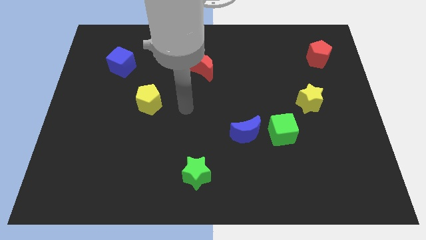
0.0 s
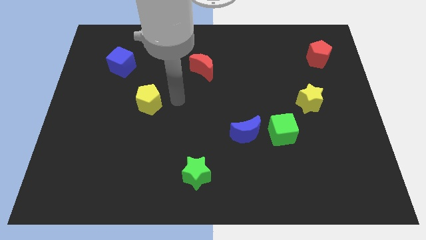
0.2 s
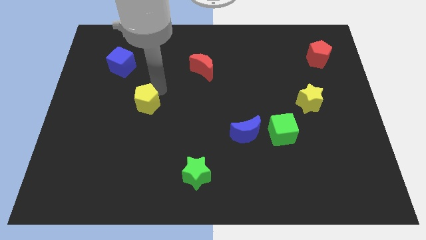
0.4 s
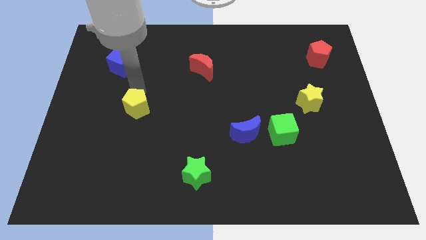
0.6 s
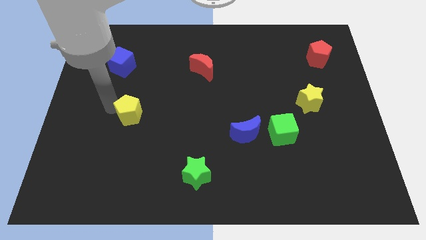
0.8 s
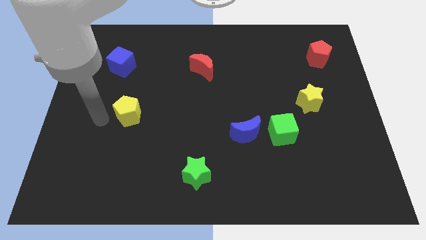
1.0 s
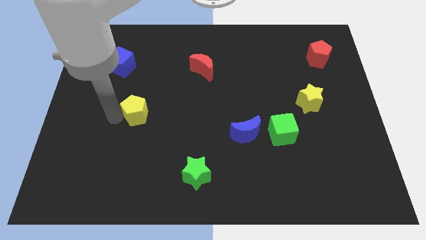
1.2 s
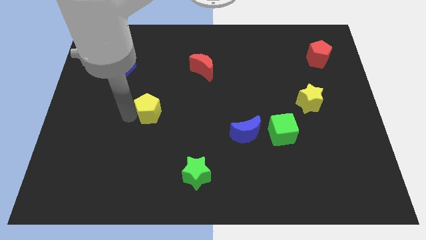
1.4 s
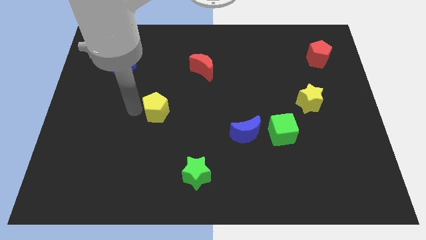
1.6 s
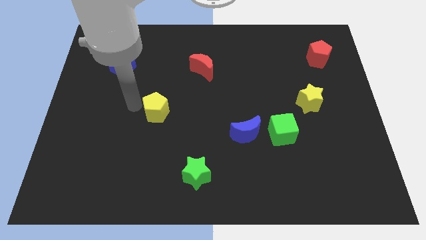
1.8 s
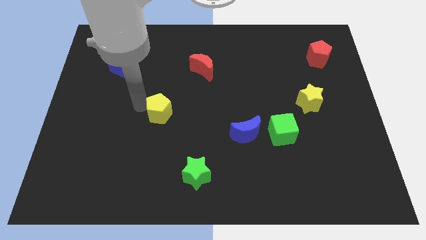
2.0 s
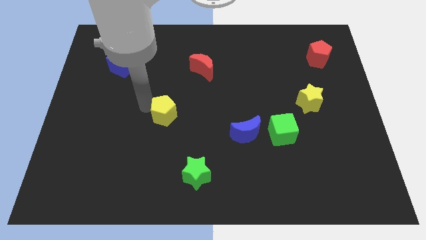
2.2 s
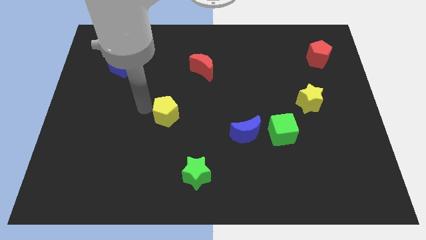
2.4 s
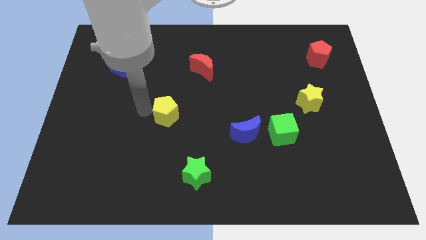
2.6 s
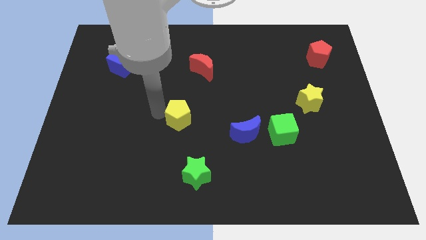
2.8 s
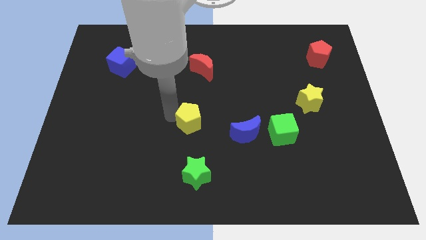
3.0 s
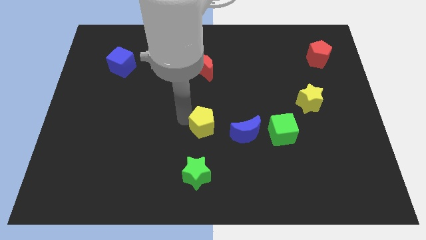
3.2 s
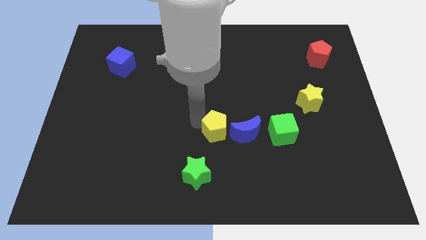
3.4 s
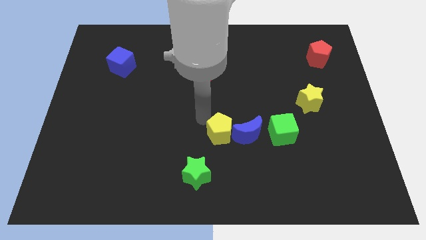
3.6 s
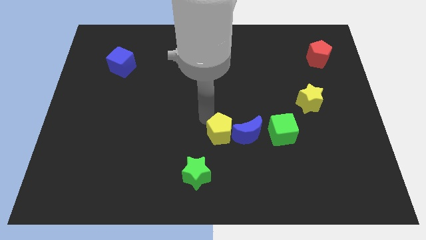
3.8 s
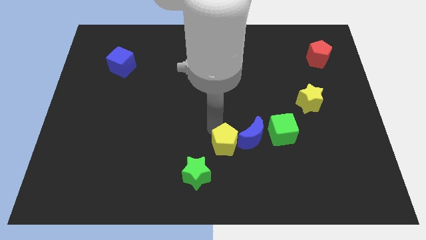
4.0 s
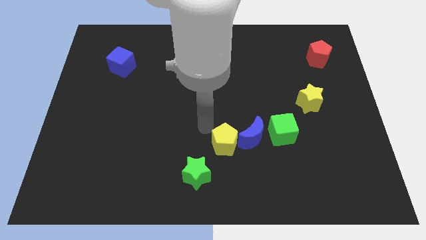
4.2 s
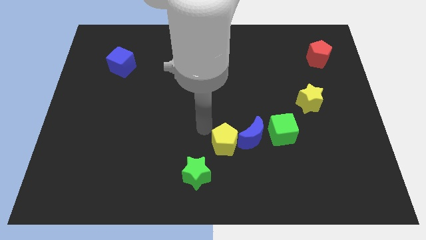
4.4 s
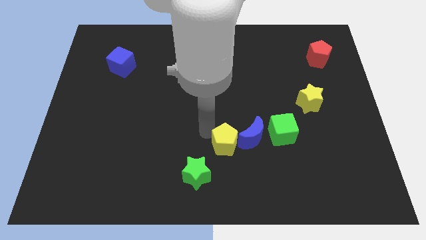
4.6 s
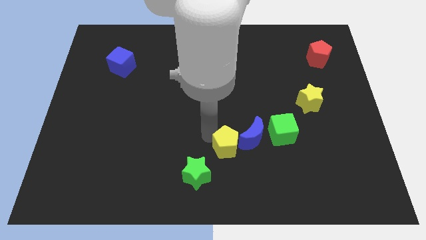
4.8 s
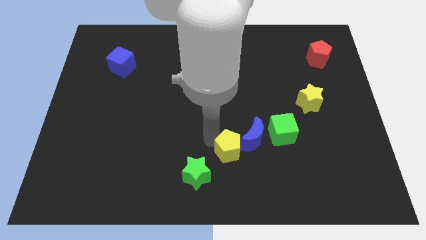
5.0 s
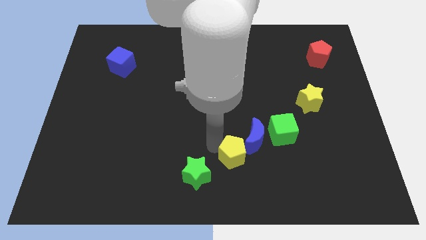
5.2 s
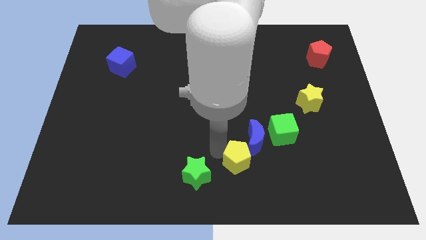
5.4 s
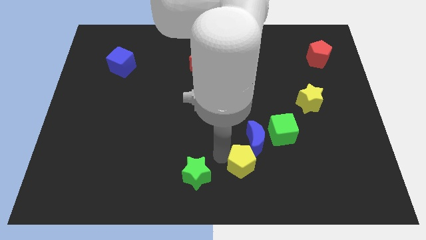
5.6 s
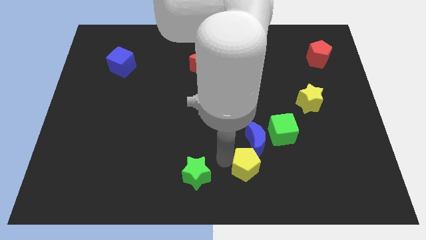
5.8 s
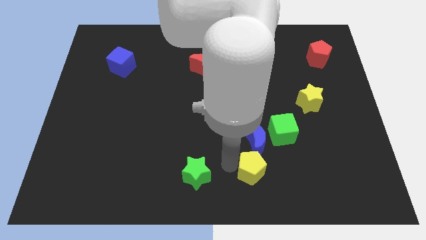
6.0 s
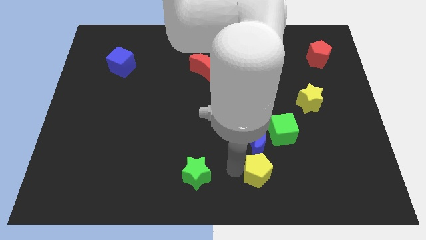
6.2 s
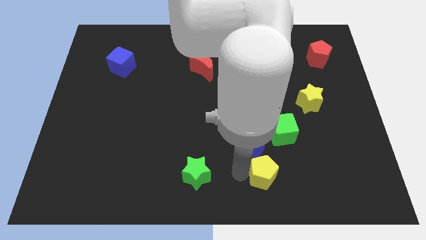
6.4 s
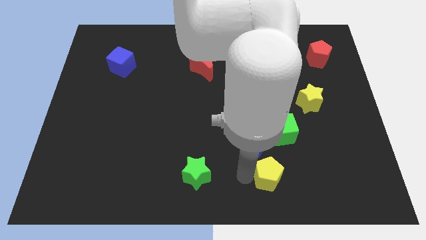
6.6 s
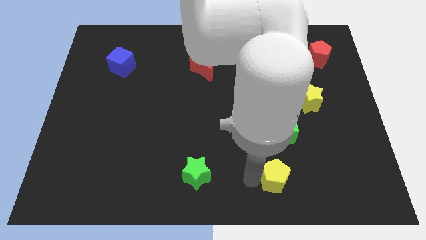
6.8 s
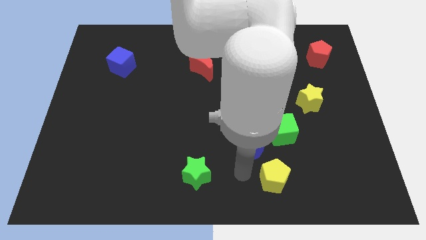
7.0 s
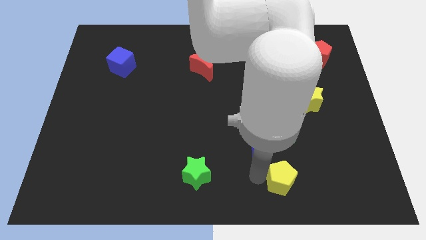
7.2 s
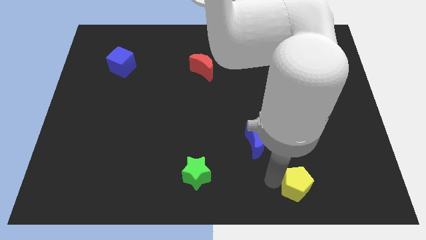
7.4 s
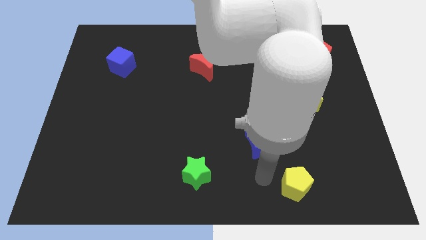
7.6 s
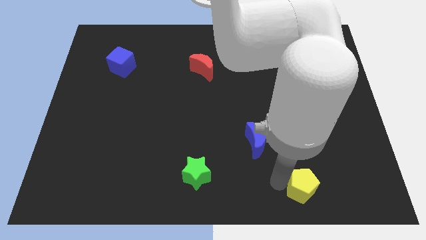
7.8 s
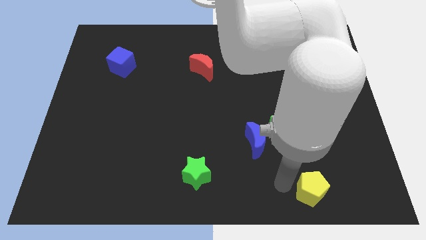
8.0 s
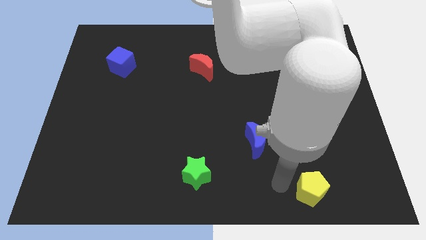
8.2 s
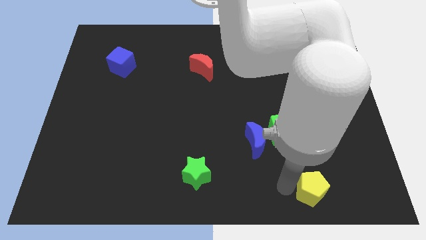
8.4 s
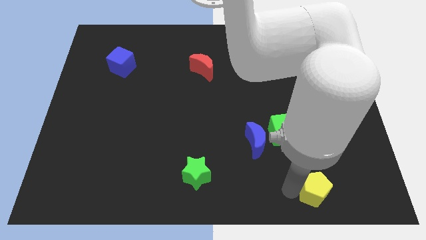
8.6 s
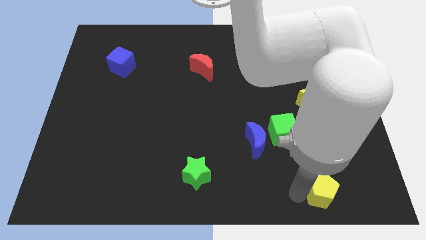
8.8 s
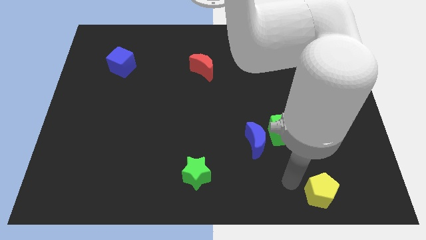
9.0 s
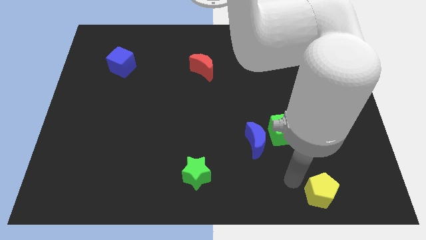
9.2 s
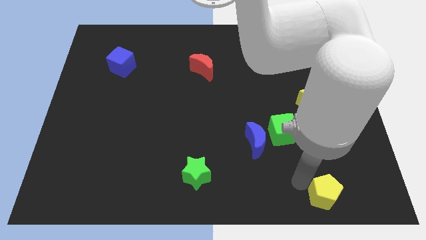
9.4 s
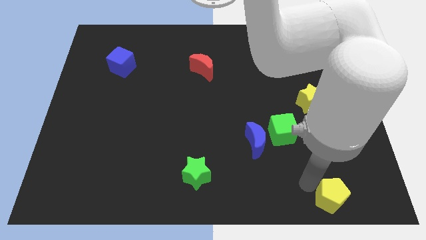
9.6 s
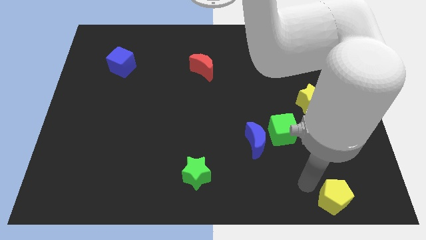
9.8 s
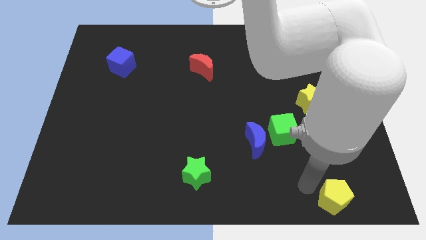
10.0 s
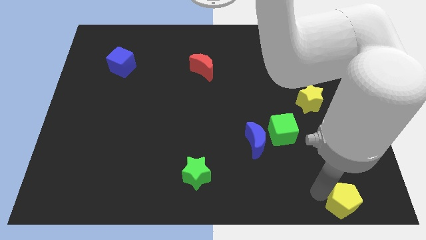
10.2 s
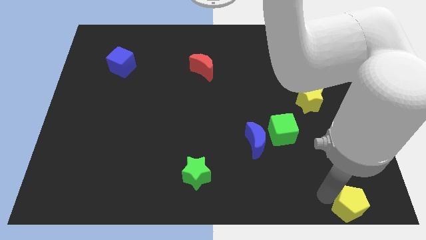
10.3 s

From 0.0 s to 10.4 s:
push the yellow pentagon to the lower right corner
